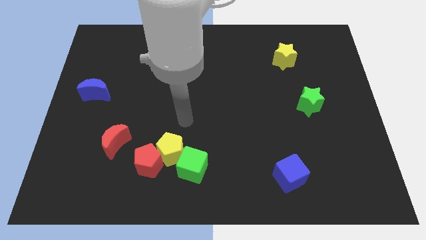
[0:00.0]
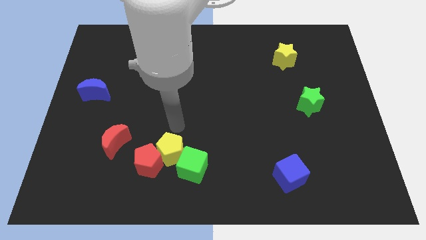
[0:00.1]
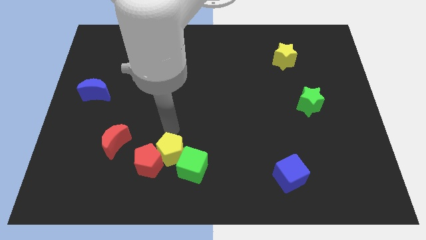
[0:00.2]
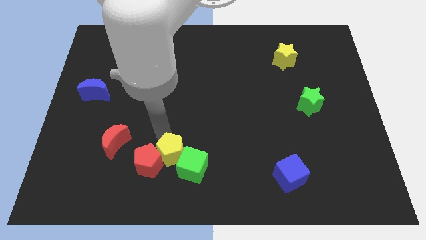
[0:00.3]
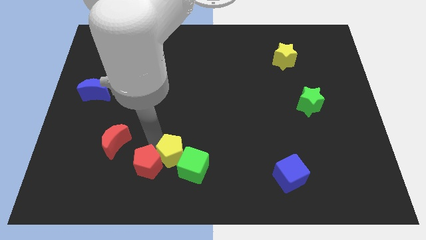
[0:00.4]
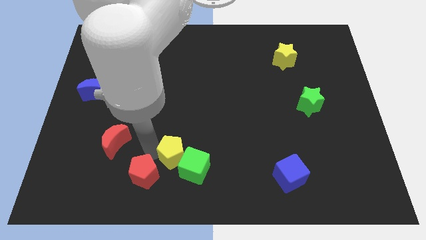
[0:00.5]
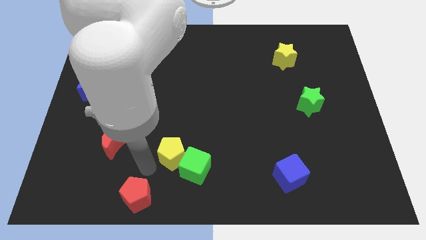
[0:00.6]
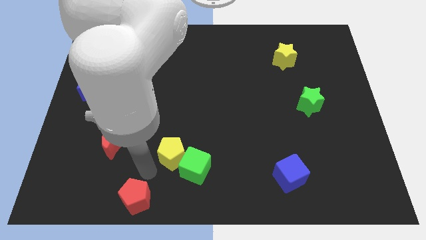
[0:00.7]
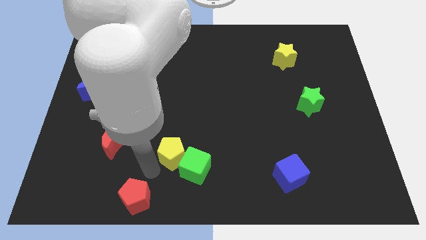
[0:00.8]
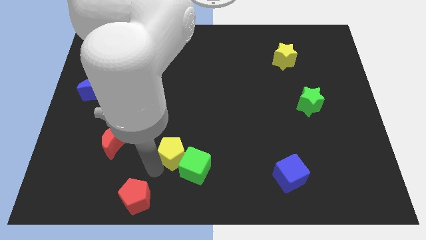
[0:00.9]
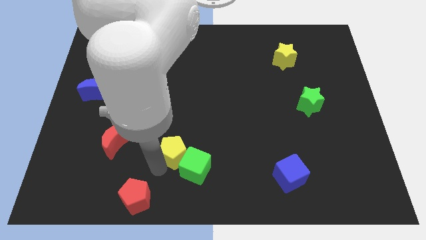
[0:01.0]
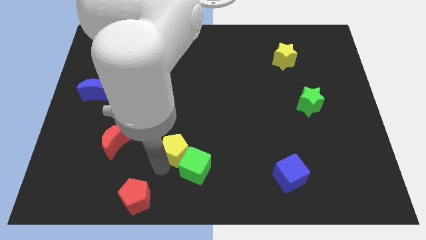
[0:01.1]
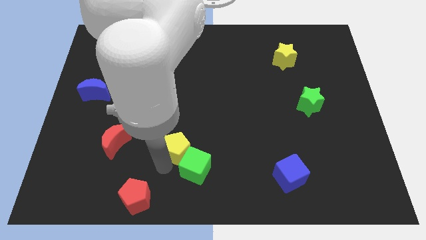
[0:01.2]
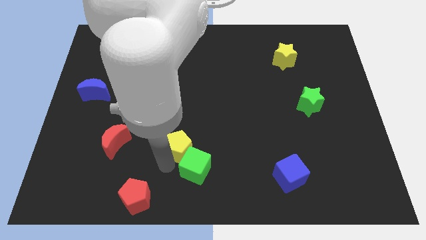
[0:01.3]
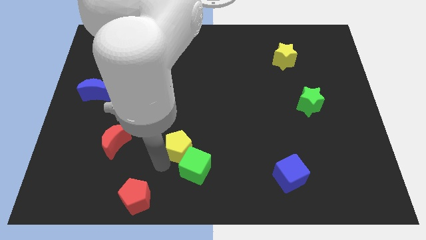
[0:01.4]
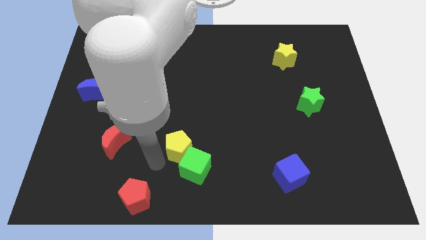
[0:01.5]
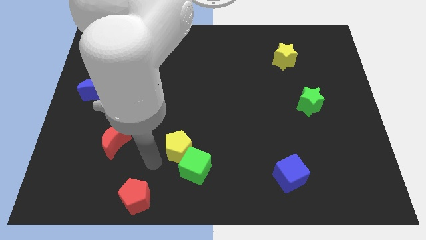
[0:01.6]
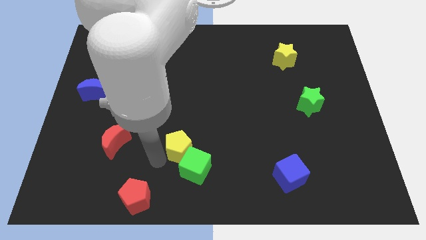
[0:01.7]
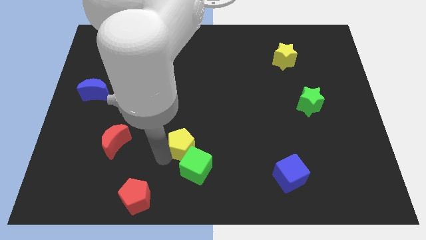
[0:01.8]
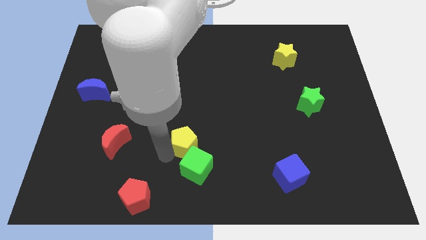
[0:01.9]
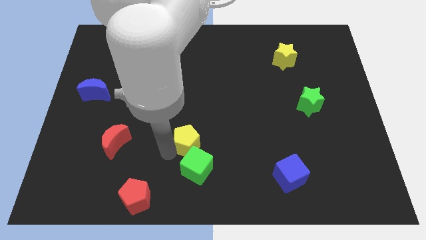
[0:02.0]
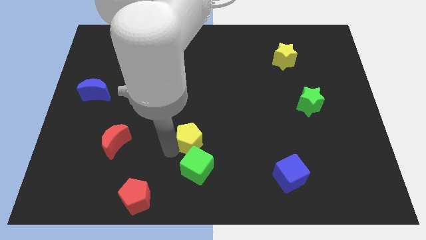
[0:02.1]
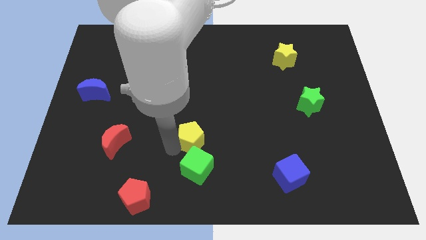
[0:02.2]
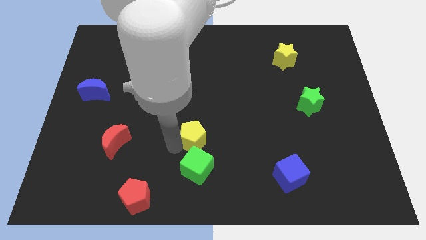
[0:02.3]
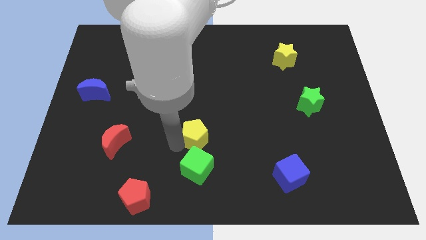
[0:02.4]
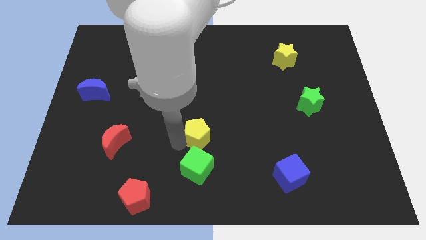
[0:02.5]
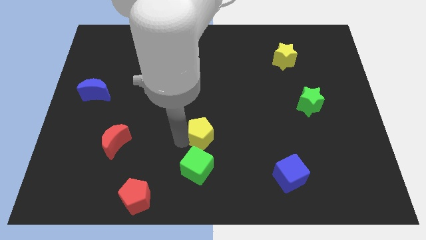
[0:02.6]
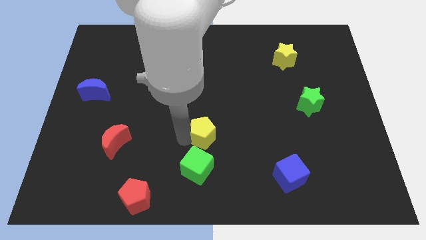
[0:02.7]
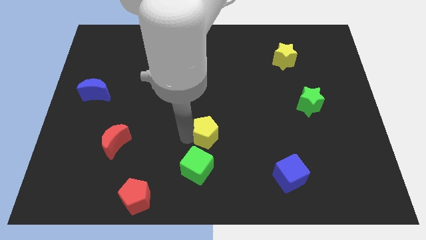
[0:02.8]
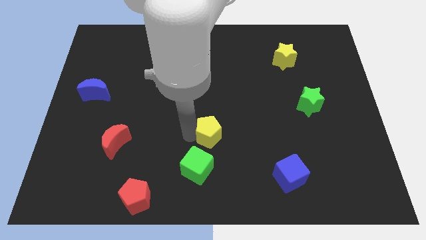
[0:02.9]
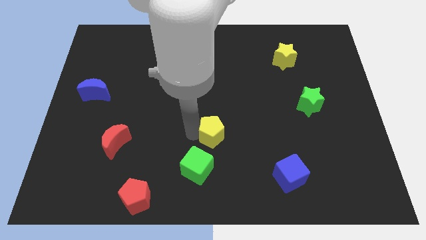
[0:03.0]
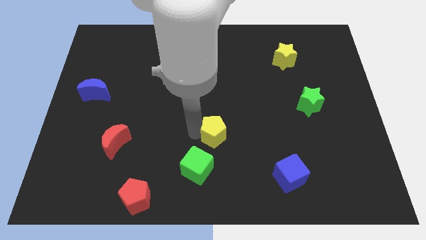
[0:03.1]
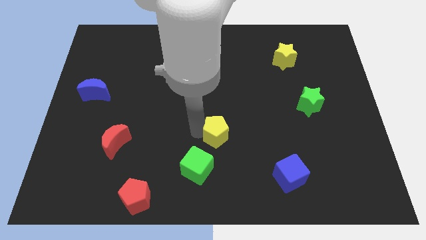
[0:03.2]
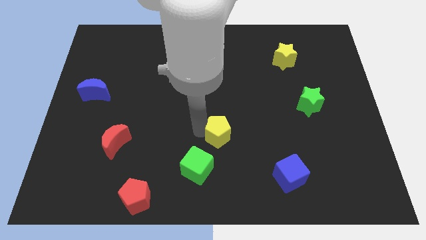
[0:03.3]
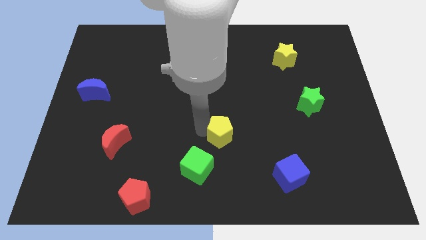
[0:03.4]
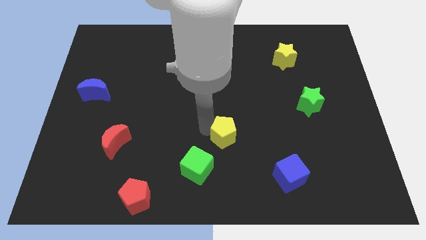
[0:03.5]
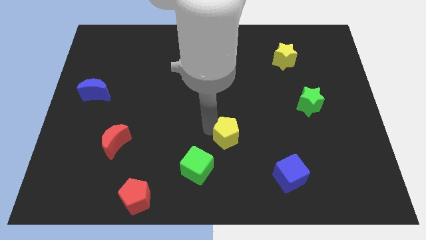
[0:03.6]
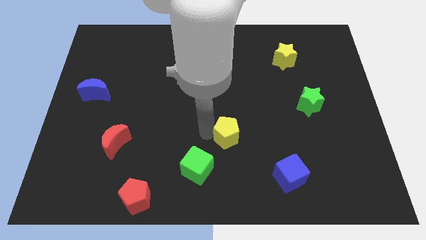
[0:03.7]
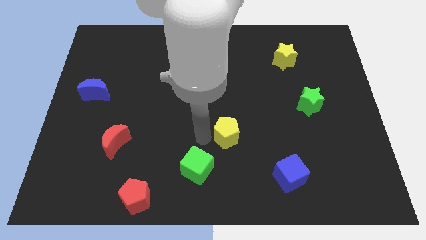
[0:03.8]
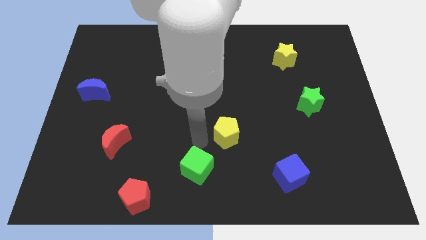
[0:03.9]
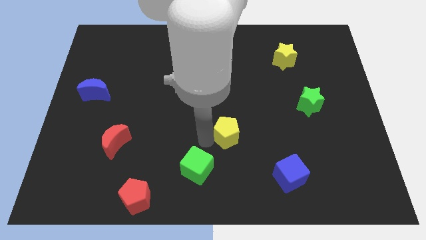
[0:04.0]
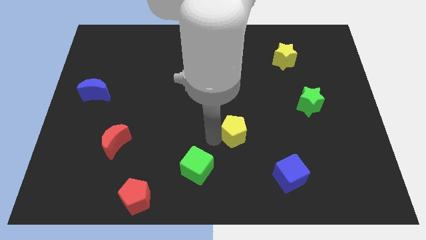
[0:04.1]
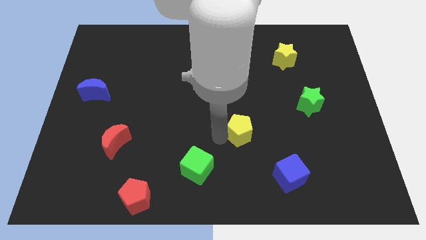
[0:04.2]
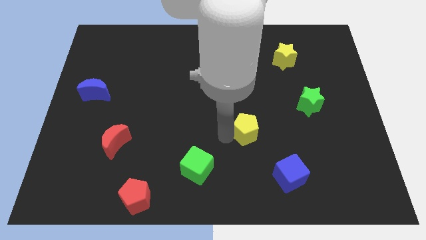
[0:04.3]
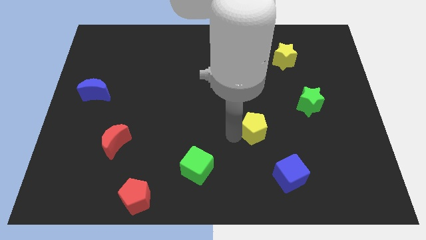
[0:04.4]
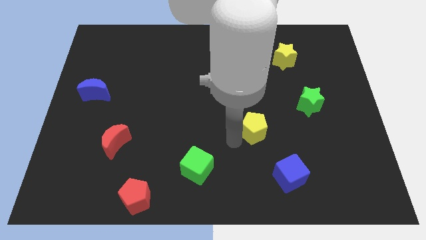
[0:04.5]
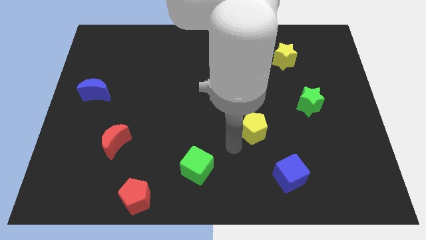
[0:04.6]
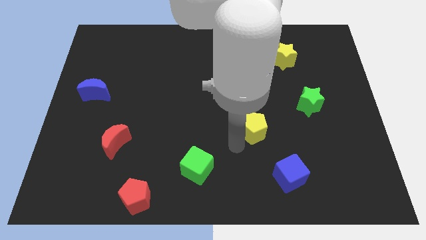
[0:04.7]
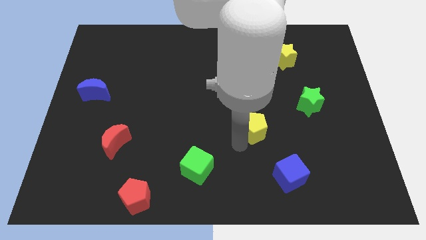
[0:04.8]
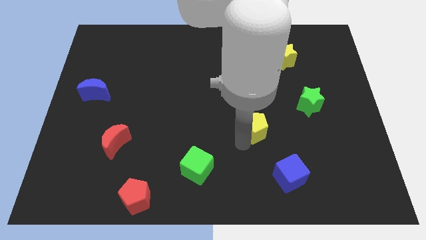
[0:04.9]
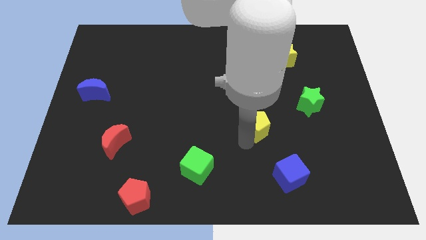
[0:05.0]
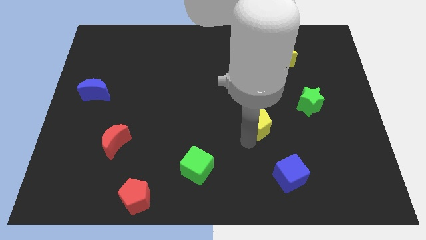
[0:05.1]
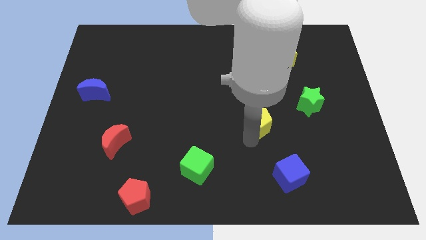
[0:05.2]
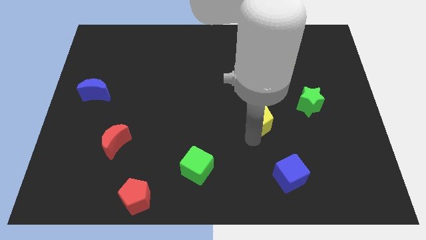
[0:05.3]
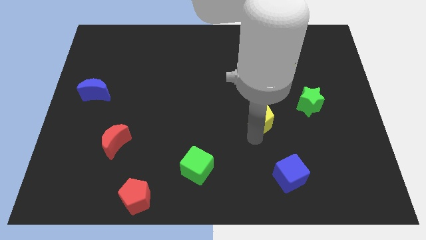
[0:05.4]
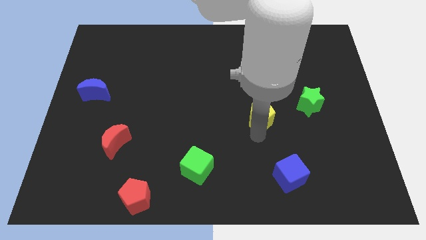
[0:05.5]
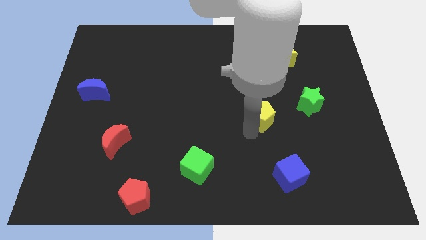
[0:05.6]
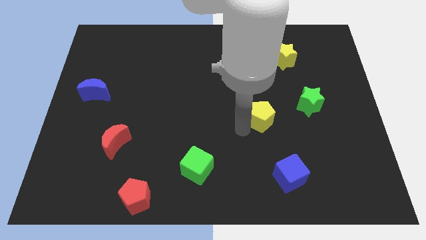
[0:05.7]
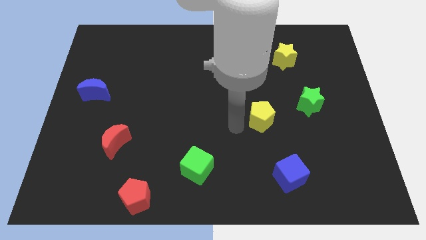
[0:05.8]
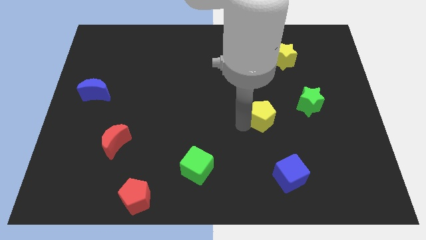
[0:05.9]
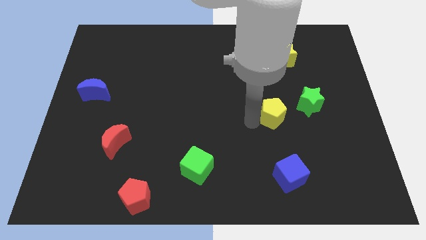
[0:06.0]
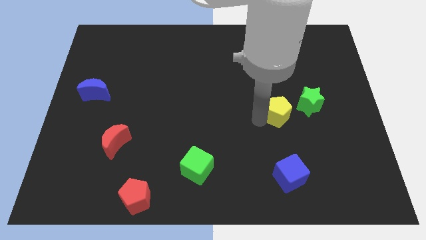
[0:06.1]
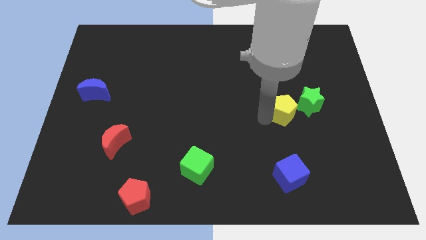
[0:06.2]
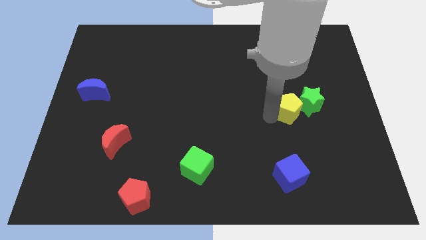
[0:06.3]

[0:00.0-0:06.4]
put the yellow pentagon next to the green star

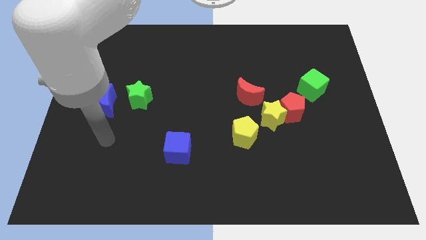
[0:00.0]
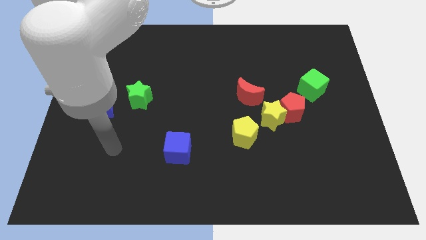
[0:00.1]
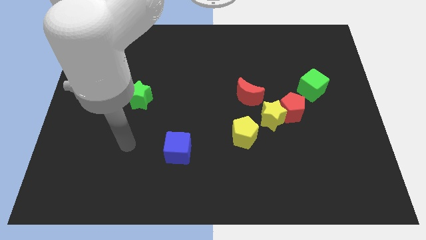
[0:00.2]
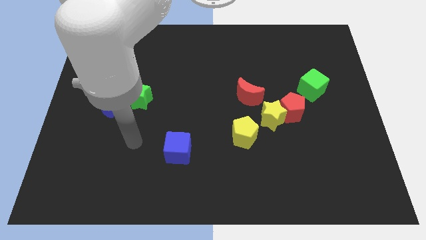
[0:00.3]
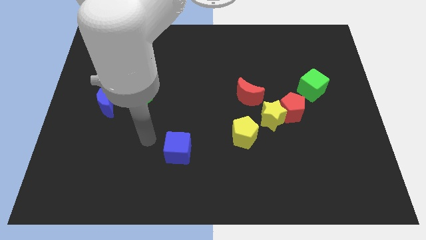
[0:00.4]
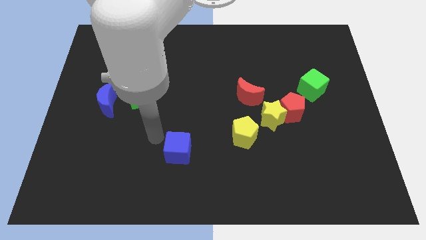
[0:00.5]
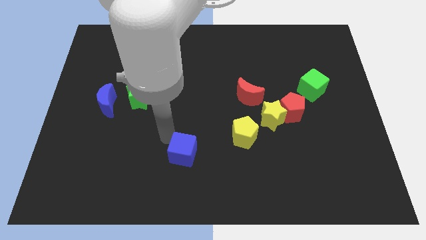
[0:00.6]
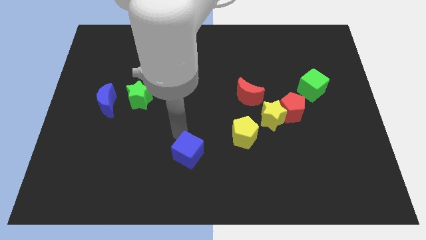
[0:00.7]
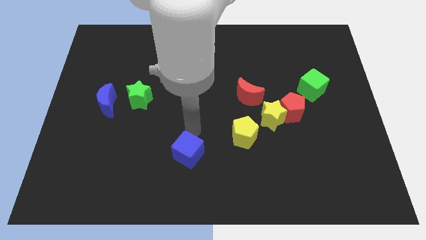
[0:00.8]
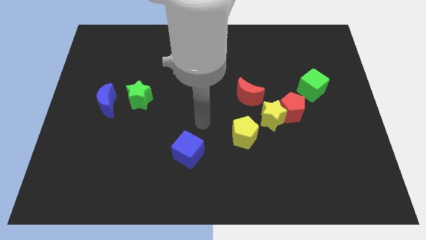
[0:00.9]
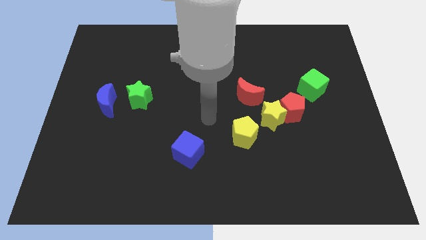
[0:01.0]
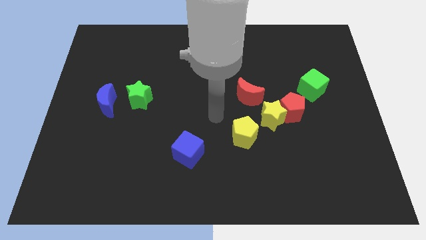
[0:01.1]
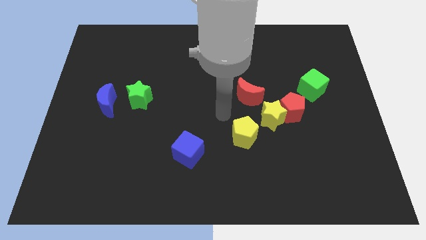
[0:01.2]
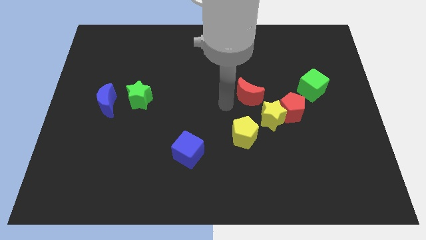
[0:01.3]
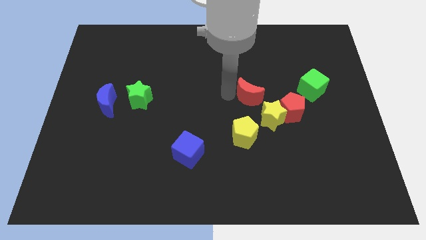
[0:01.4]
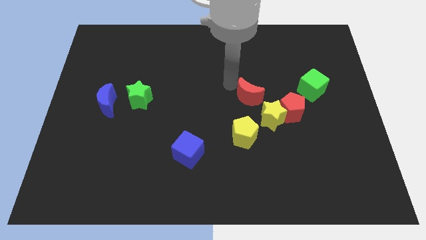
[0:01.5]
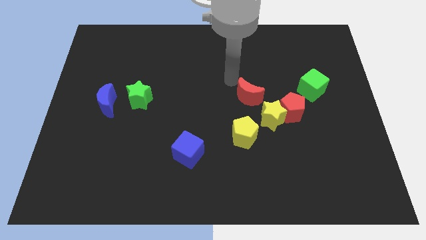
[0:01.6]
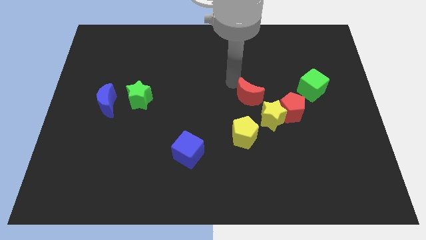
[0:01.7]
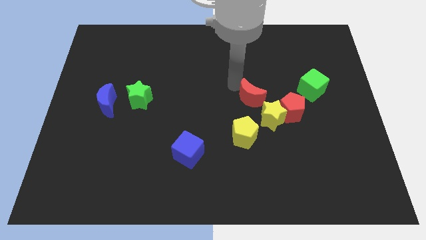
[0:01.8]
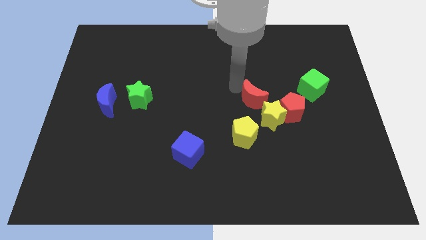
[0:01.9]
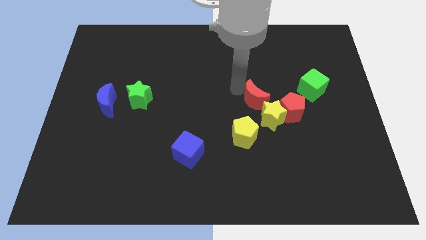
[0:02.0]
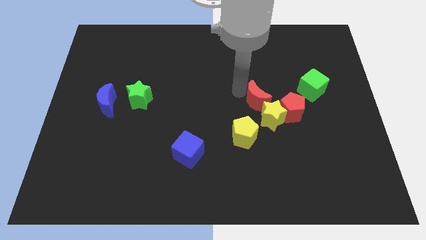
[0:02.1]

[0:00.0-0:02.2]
push the red moon to the yellow star
